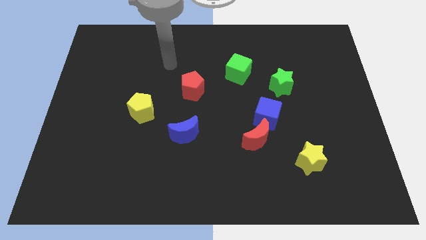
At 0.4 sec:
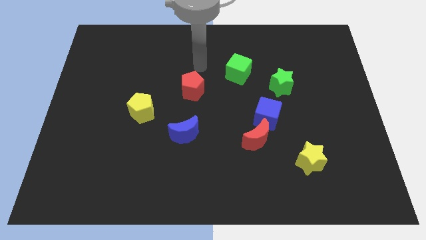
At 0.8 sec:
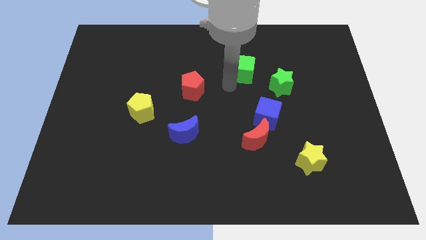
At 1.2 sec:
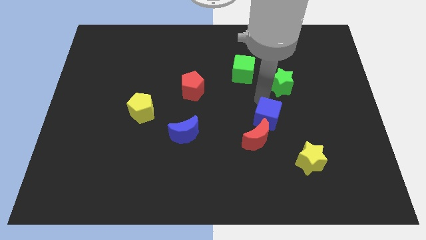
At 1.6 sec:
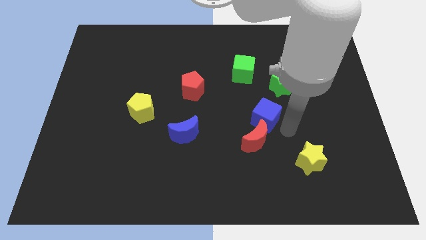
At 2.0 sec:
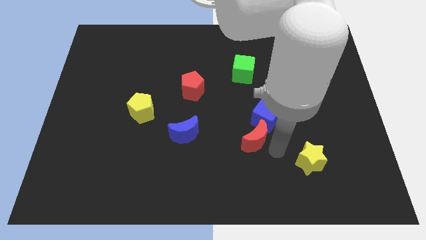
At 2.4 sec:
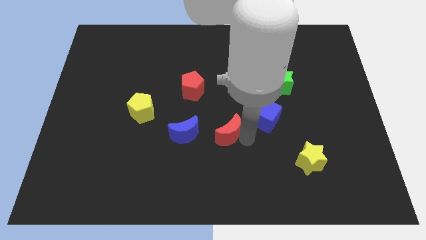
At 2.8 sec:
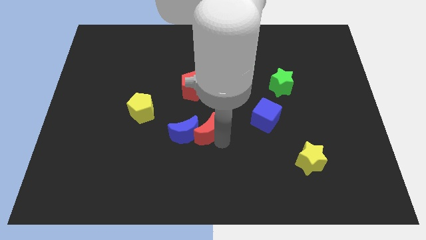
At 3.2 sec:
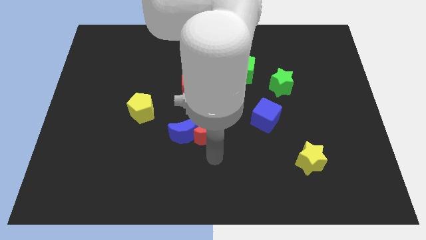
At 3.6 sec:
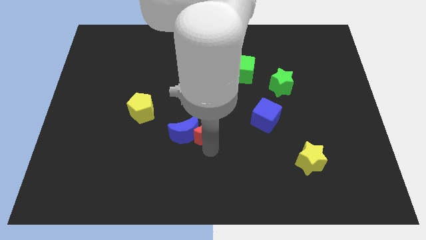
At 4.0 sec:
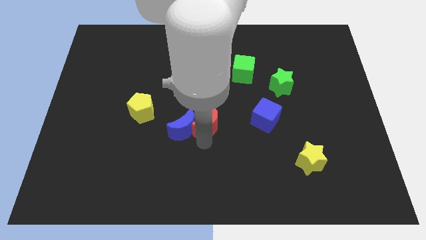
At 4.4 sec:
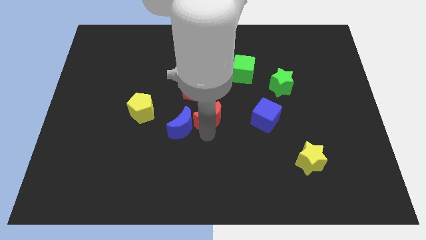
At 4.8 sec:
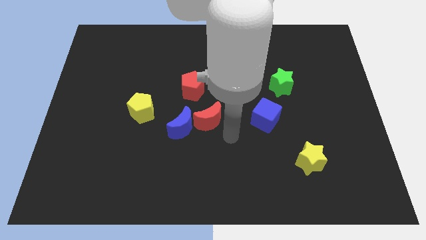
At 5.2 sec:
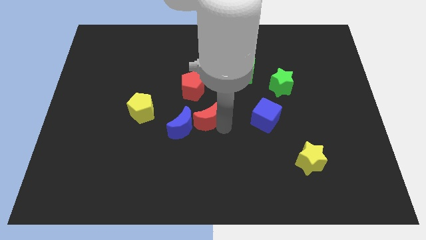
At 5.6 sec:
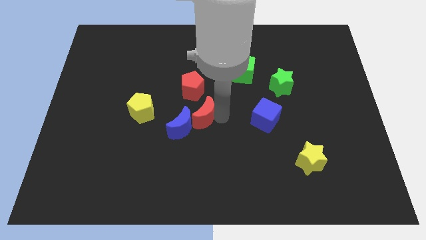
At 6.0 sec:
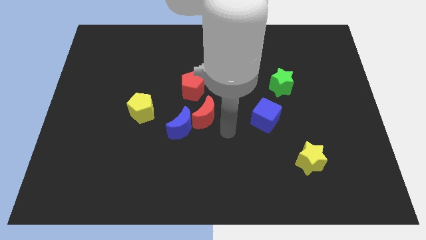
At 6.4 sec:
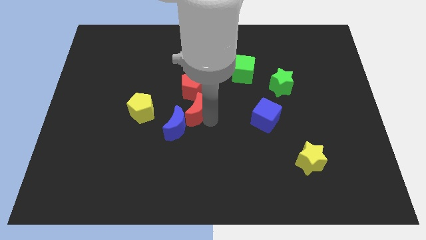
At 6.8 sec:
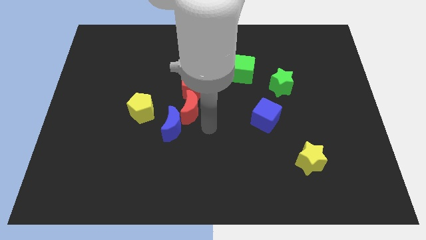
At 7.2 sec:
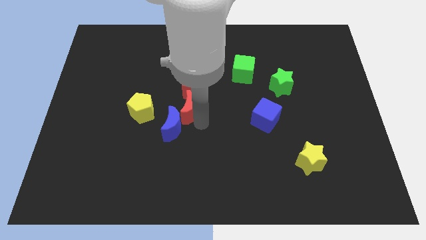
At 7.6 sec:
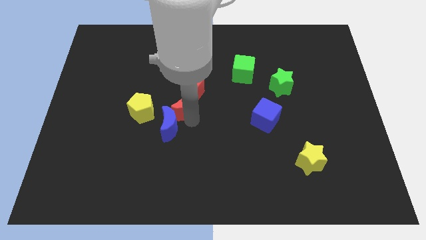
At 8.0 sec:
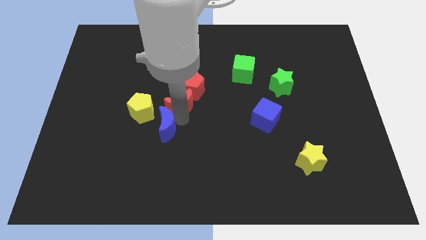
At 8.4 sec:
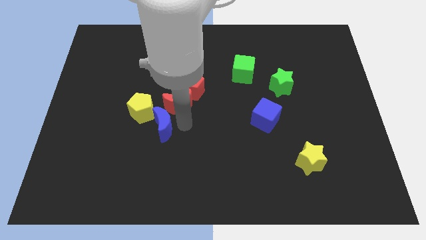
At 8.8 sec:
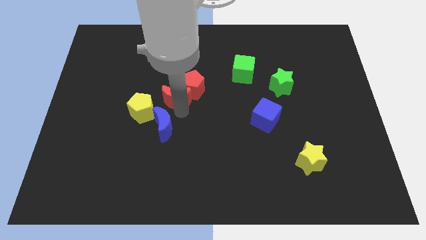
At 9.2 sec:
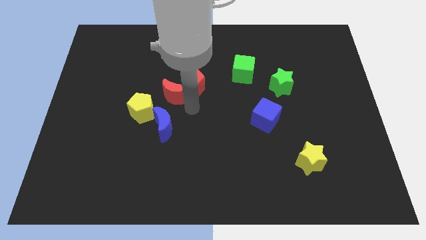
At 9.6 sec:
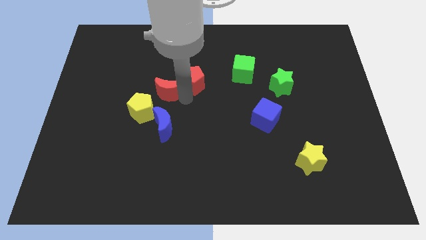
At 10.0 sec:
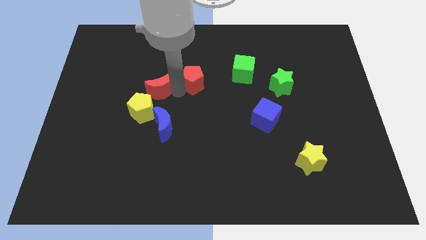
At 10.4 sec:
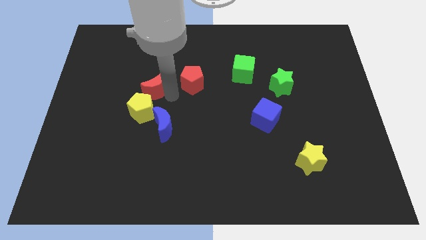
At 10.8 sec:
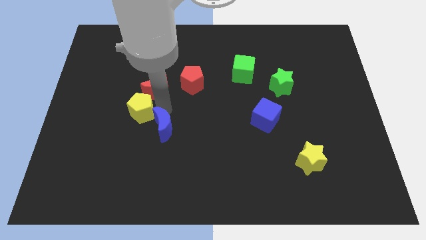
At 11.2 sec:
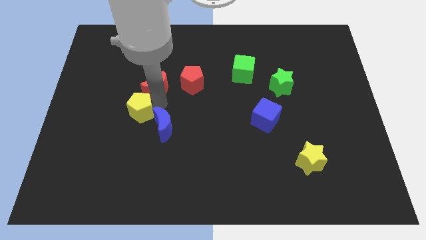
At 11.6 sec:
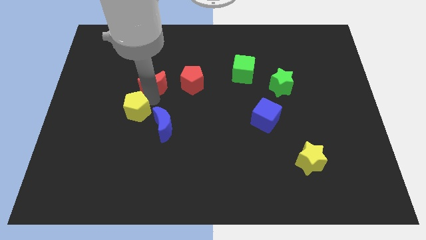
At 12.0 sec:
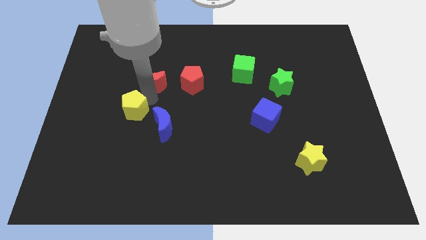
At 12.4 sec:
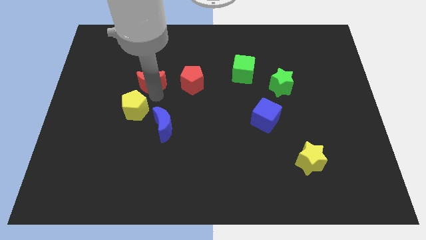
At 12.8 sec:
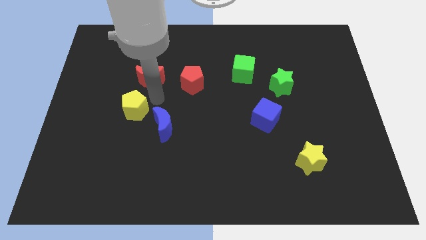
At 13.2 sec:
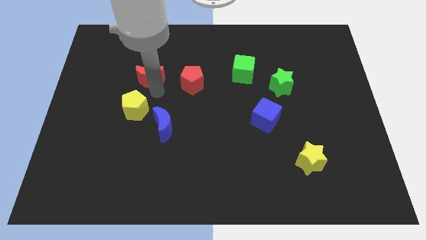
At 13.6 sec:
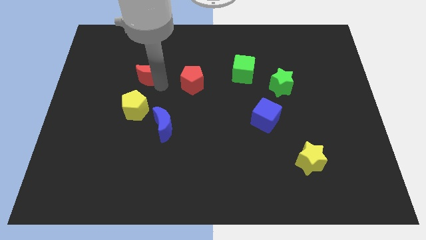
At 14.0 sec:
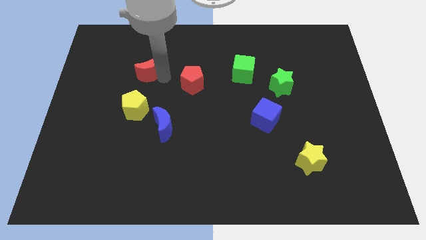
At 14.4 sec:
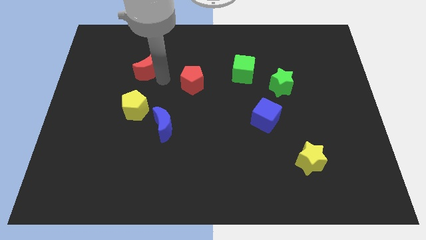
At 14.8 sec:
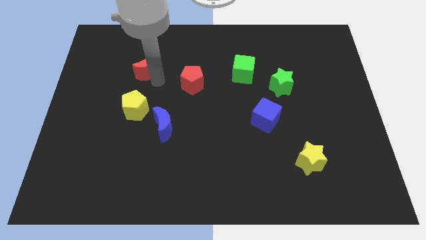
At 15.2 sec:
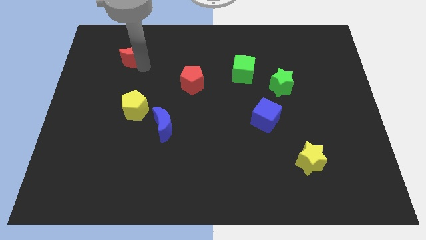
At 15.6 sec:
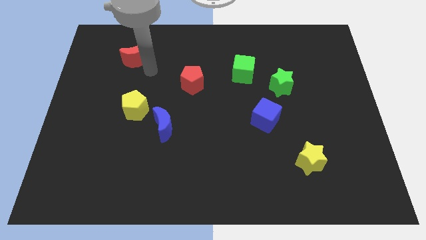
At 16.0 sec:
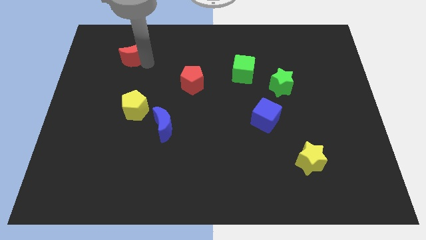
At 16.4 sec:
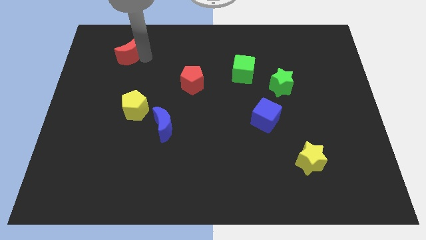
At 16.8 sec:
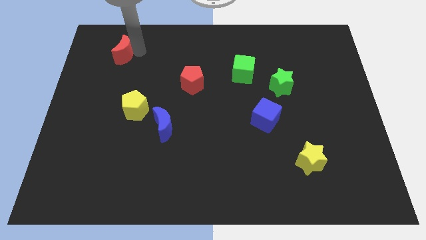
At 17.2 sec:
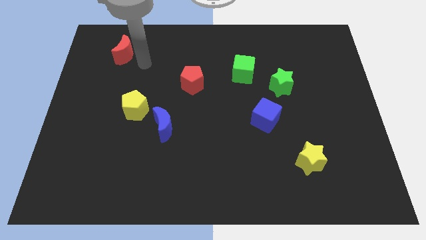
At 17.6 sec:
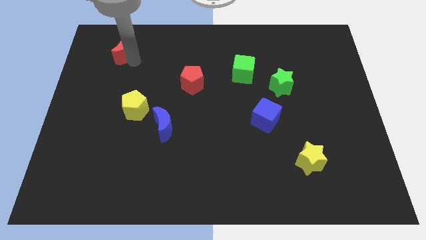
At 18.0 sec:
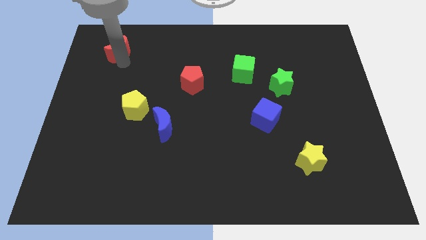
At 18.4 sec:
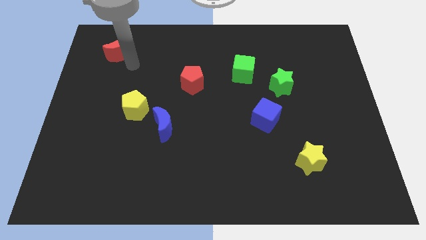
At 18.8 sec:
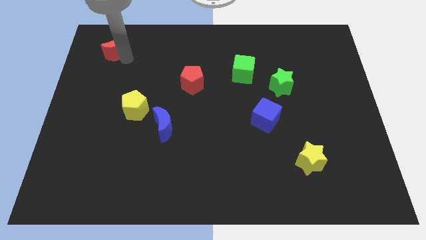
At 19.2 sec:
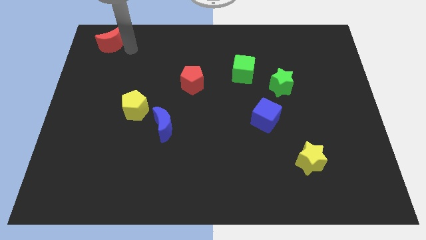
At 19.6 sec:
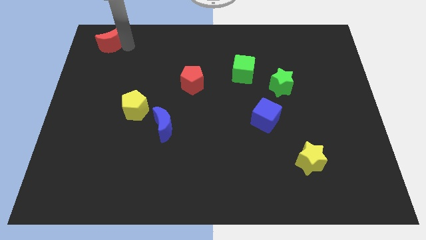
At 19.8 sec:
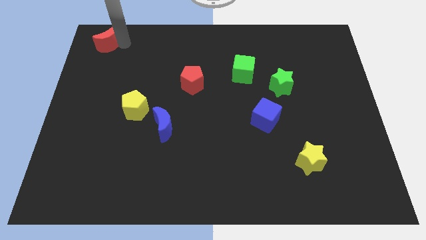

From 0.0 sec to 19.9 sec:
put the red moon to the top left of the board

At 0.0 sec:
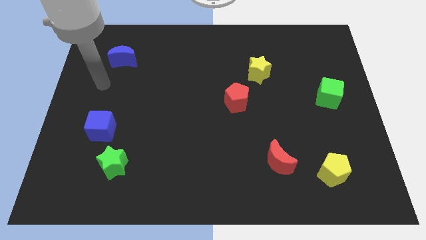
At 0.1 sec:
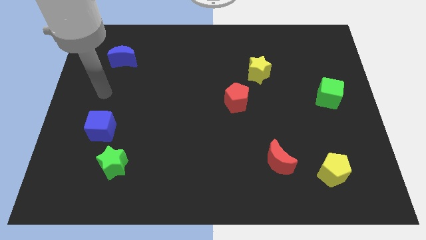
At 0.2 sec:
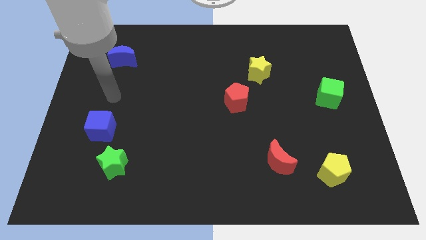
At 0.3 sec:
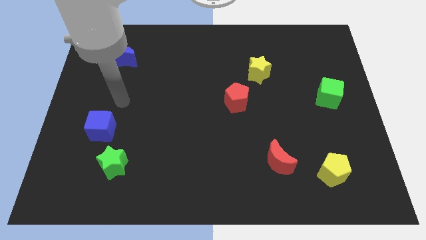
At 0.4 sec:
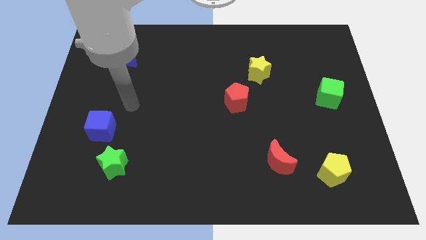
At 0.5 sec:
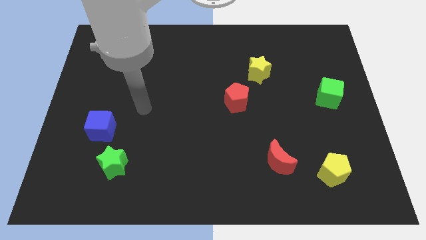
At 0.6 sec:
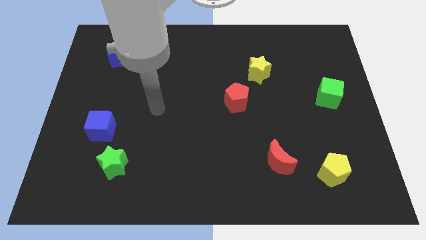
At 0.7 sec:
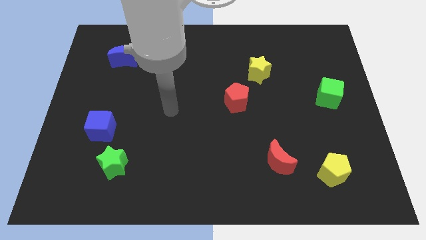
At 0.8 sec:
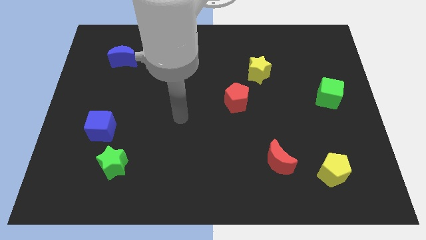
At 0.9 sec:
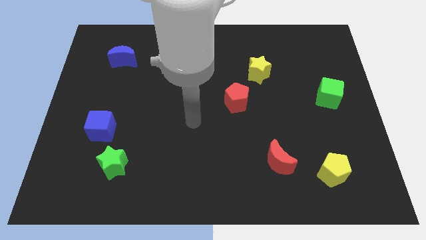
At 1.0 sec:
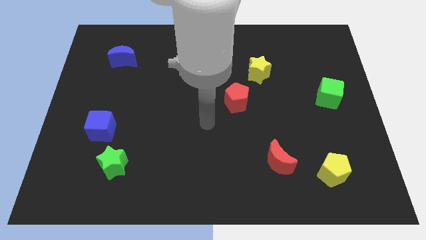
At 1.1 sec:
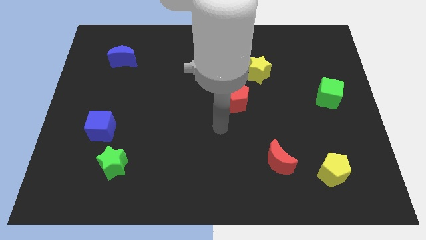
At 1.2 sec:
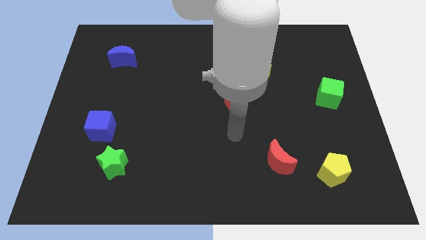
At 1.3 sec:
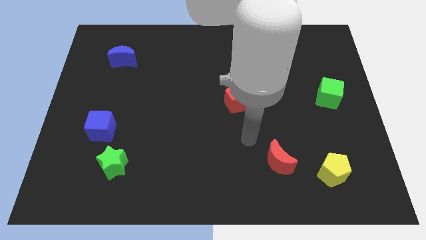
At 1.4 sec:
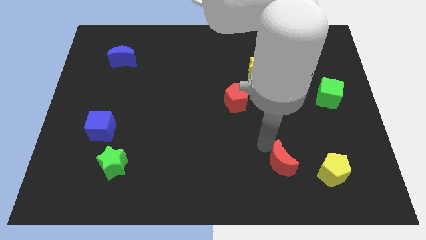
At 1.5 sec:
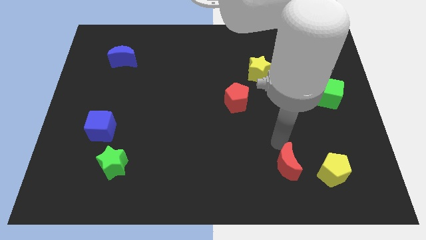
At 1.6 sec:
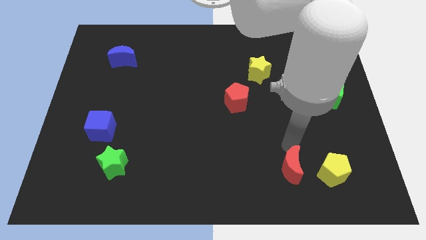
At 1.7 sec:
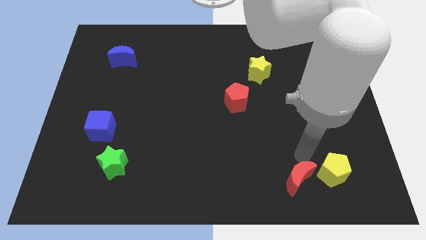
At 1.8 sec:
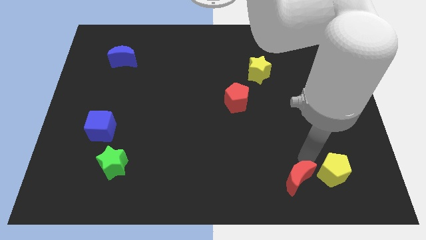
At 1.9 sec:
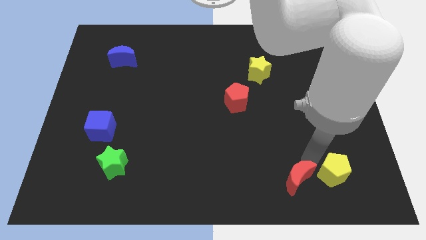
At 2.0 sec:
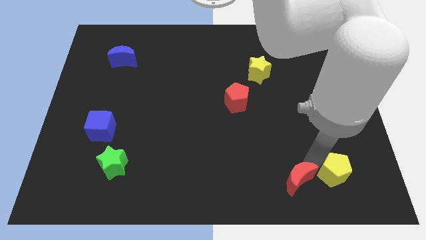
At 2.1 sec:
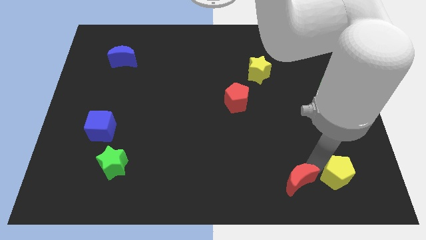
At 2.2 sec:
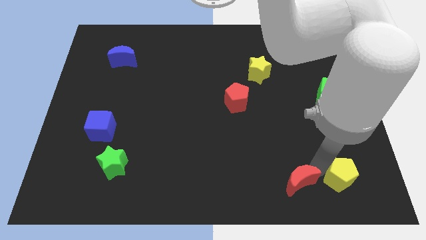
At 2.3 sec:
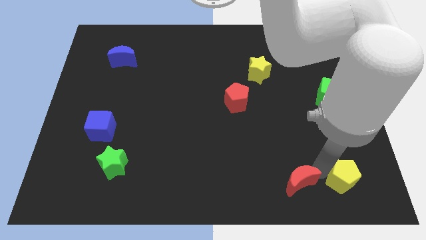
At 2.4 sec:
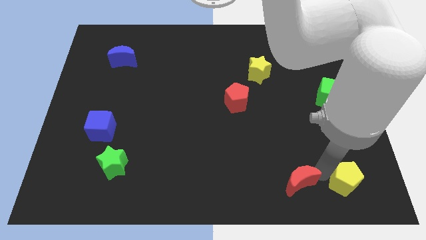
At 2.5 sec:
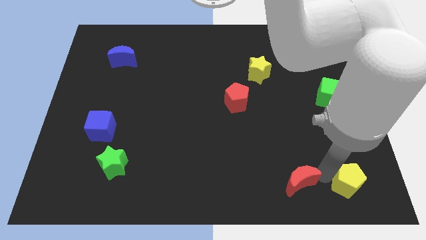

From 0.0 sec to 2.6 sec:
move the yellow pentagon to the bottom right
